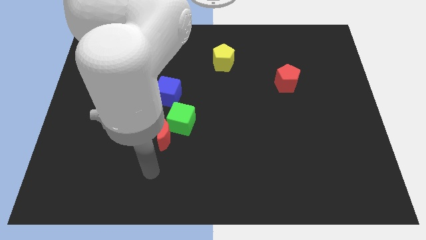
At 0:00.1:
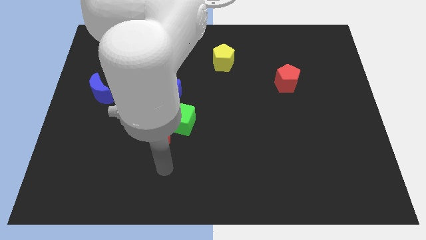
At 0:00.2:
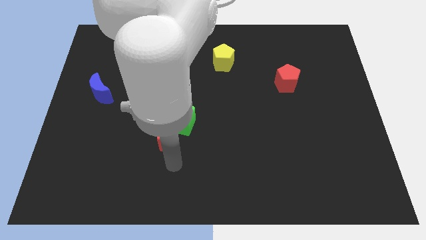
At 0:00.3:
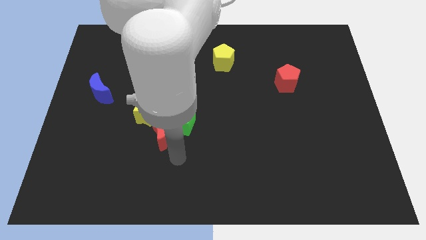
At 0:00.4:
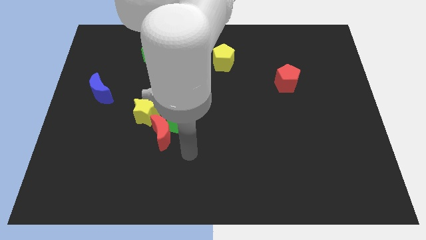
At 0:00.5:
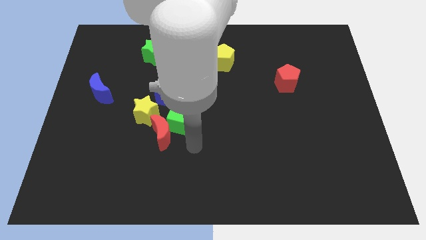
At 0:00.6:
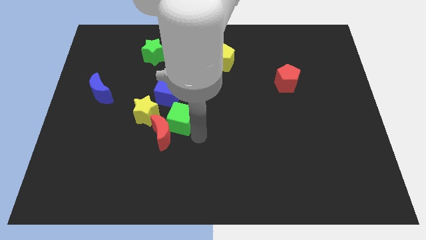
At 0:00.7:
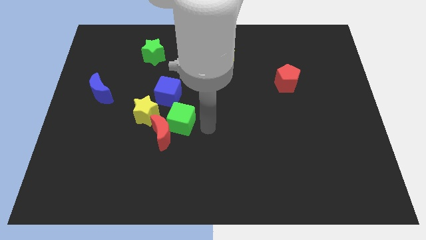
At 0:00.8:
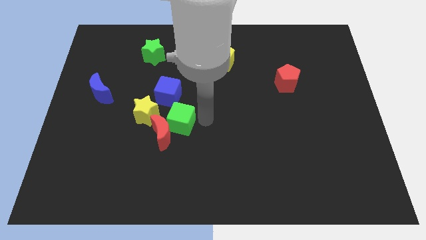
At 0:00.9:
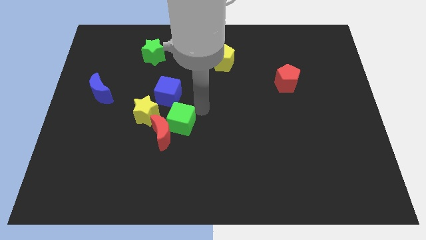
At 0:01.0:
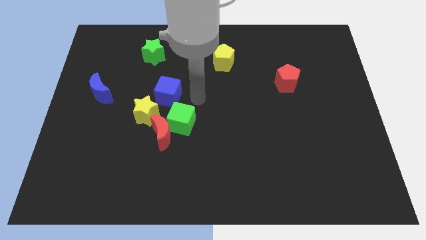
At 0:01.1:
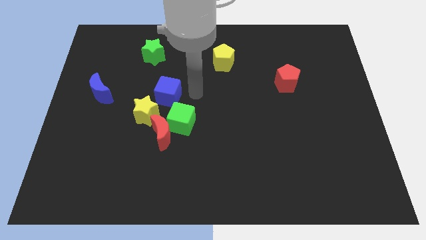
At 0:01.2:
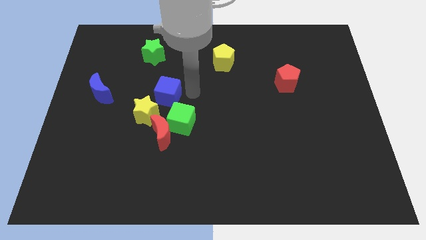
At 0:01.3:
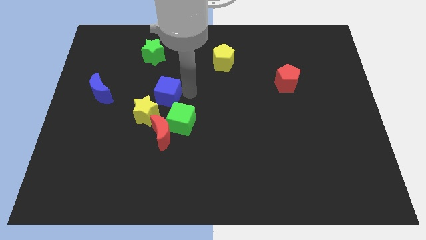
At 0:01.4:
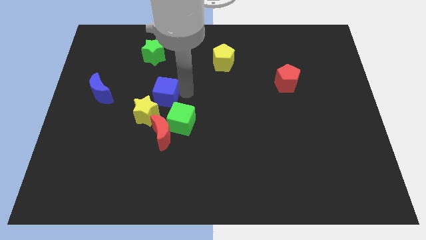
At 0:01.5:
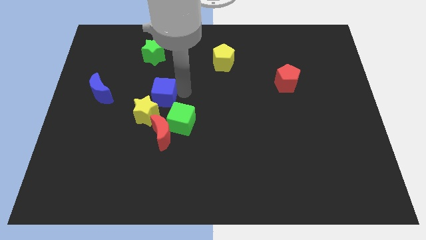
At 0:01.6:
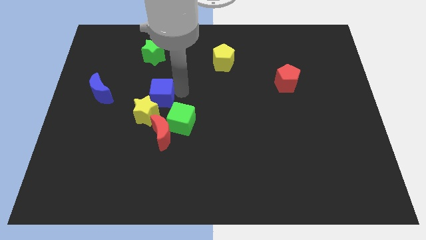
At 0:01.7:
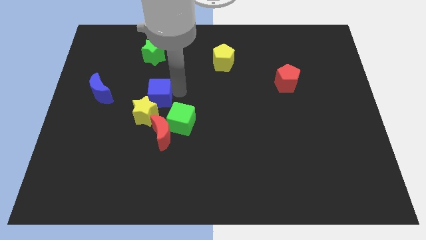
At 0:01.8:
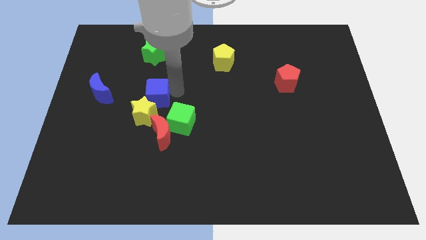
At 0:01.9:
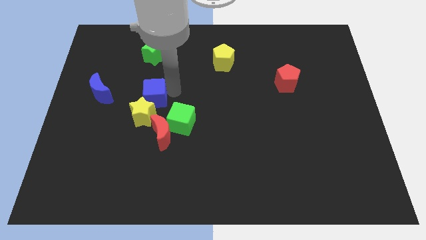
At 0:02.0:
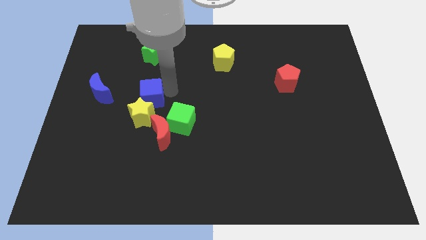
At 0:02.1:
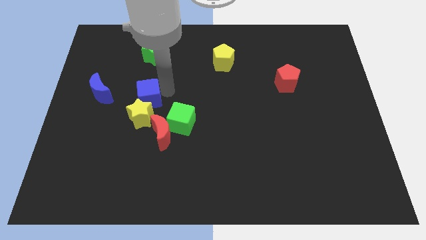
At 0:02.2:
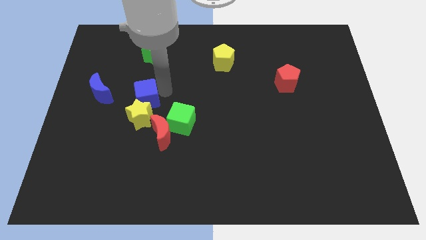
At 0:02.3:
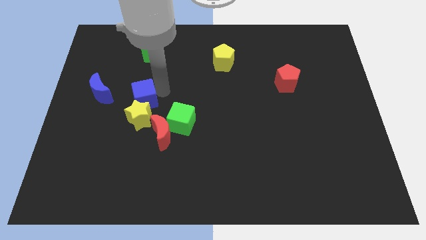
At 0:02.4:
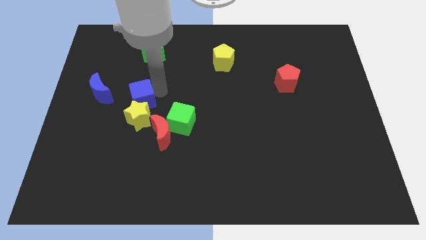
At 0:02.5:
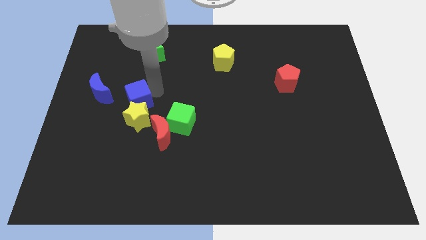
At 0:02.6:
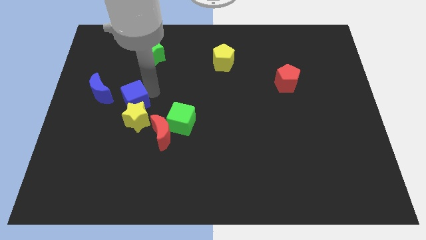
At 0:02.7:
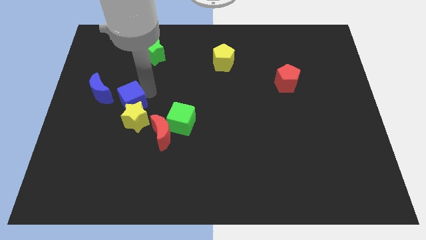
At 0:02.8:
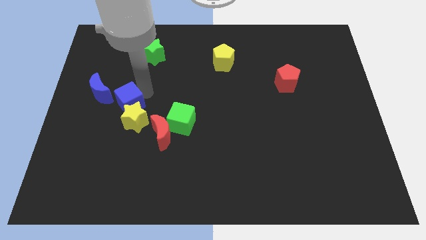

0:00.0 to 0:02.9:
slightly slide the blue cube downwards and left diagonally

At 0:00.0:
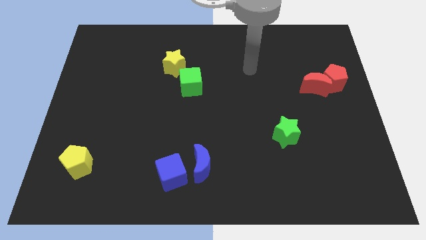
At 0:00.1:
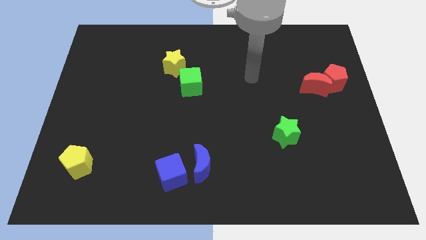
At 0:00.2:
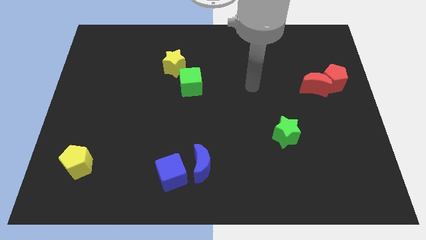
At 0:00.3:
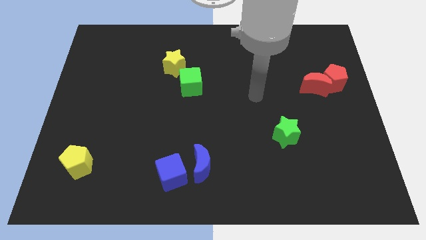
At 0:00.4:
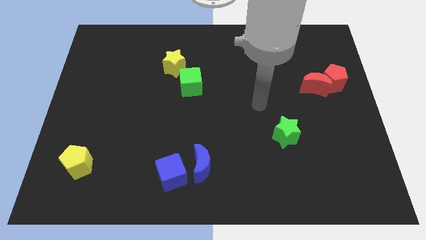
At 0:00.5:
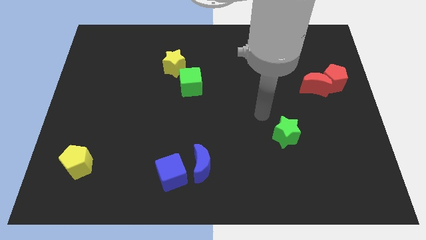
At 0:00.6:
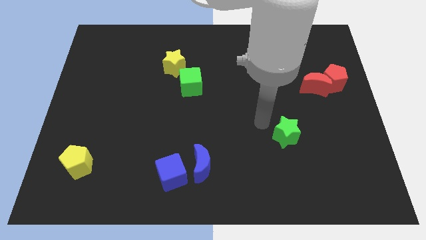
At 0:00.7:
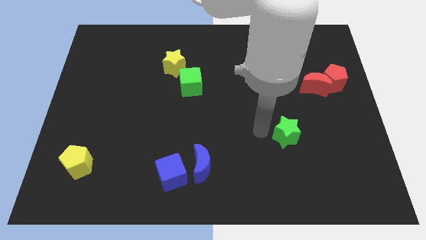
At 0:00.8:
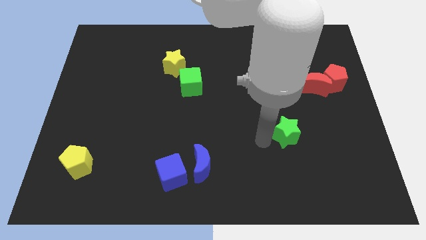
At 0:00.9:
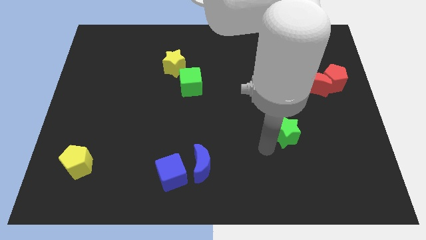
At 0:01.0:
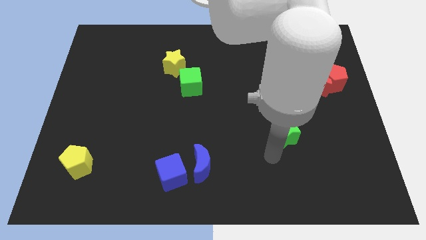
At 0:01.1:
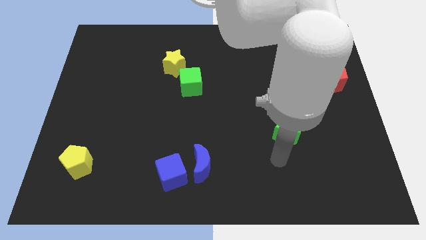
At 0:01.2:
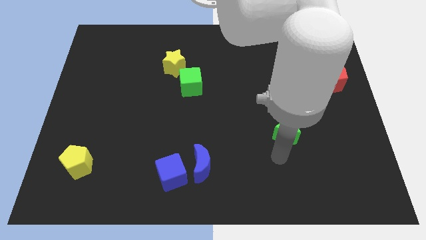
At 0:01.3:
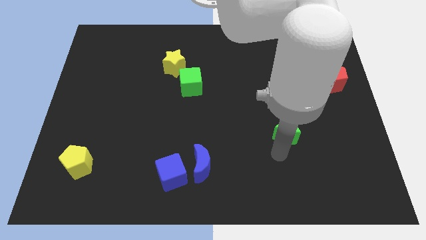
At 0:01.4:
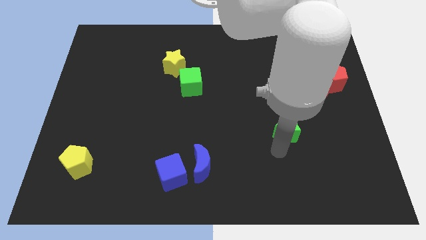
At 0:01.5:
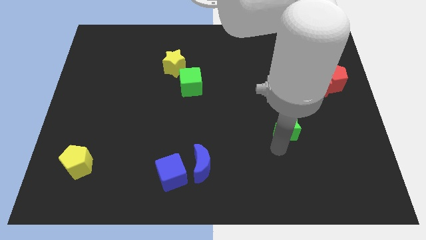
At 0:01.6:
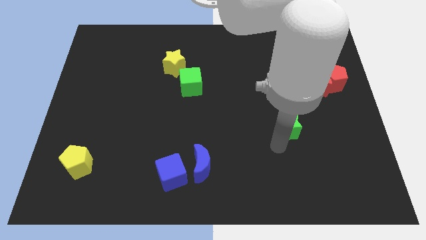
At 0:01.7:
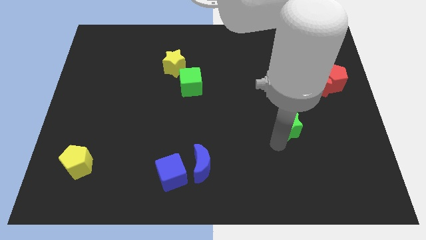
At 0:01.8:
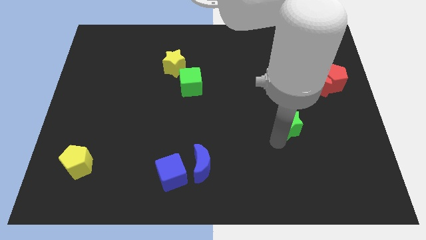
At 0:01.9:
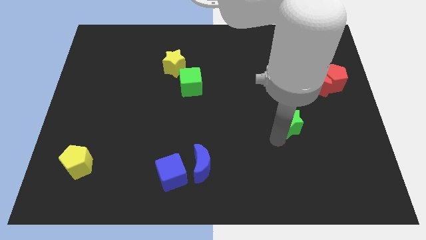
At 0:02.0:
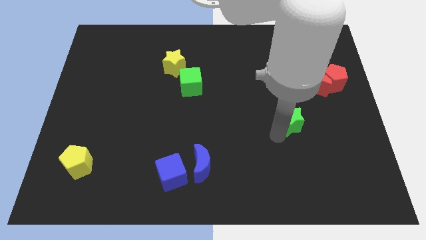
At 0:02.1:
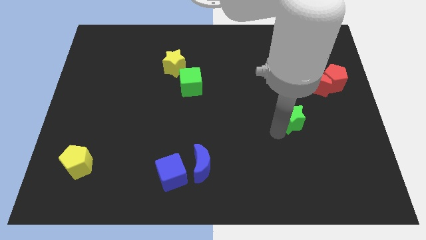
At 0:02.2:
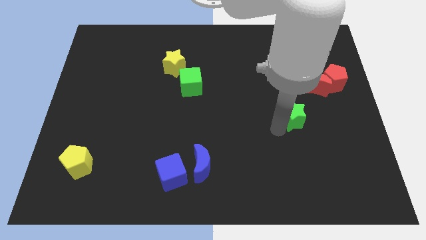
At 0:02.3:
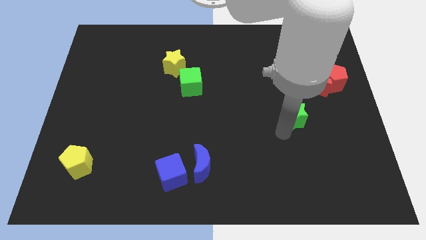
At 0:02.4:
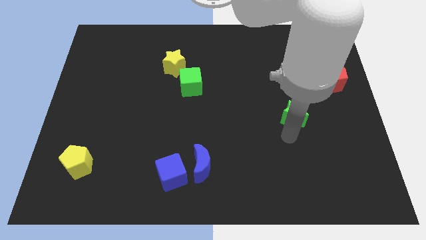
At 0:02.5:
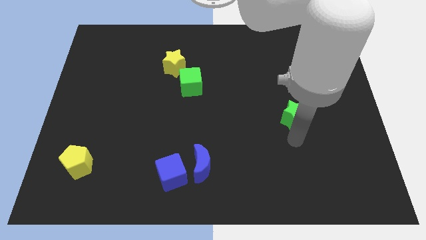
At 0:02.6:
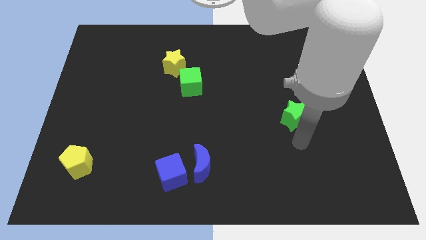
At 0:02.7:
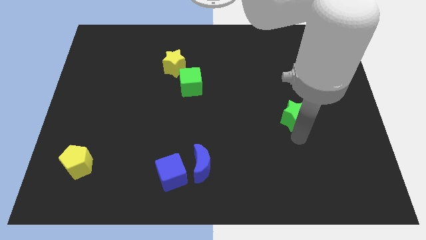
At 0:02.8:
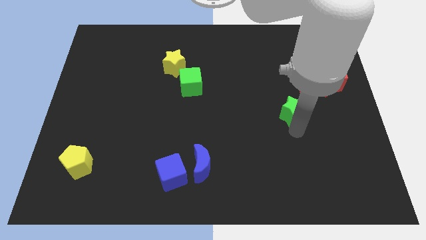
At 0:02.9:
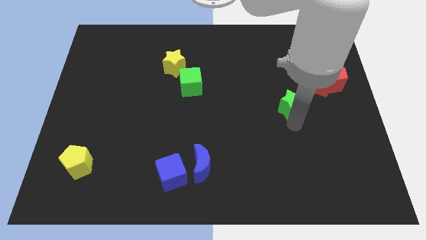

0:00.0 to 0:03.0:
move the green star a bit upwards

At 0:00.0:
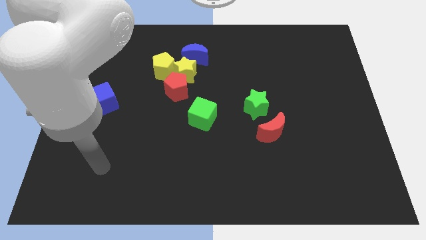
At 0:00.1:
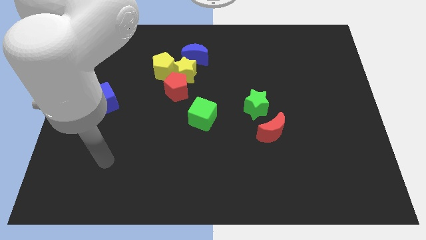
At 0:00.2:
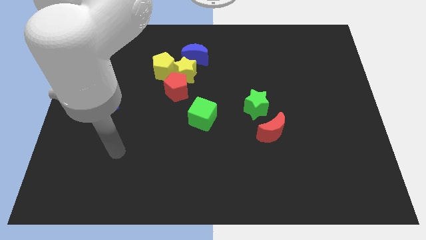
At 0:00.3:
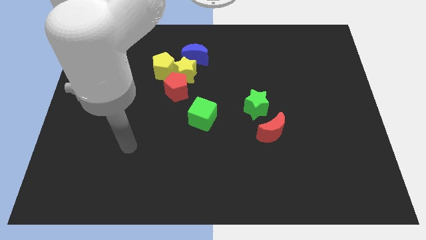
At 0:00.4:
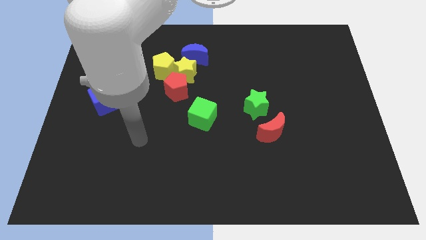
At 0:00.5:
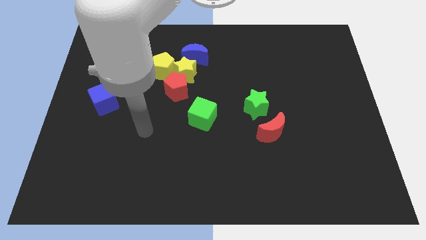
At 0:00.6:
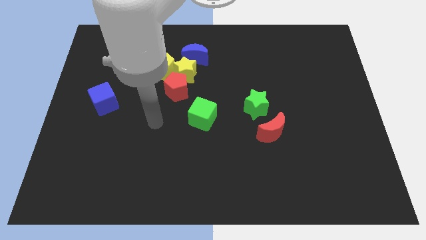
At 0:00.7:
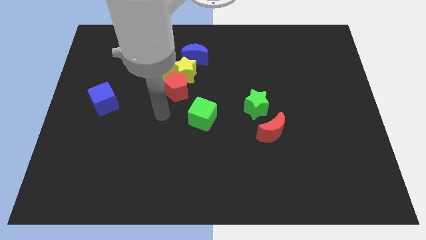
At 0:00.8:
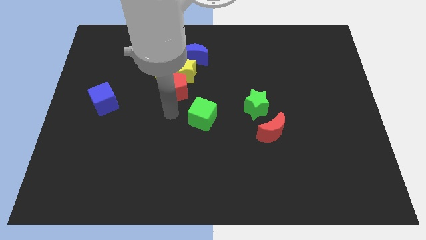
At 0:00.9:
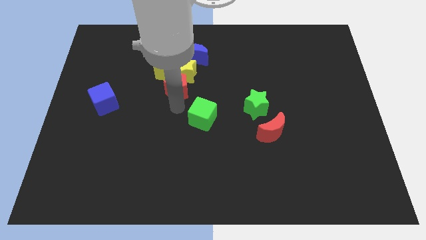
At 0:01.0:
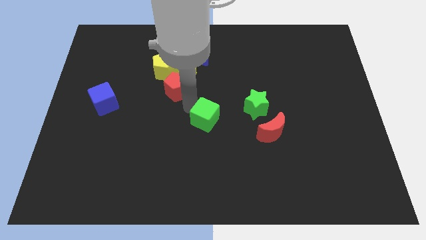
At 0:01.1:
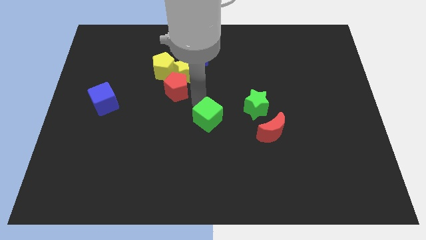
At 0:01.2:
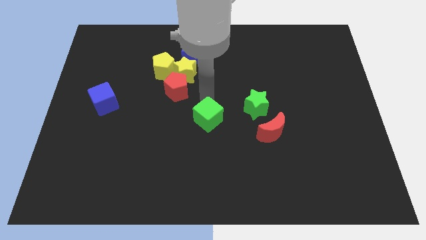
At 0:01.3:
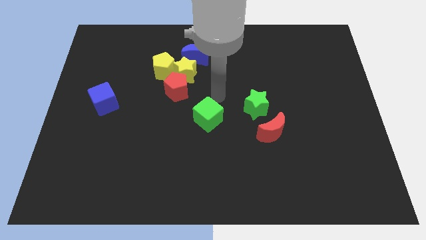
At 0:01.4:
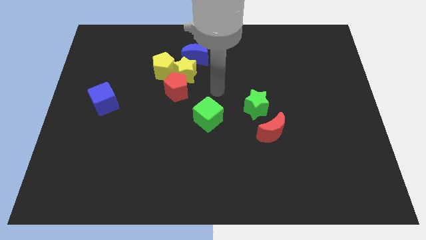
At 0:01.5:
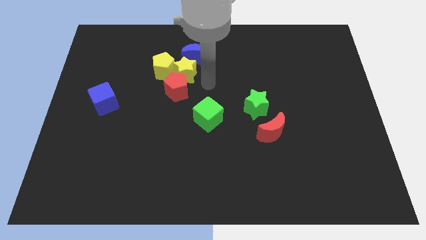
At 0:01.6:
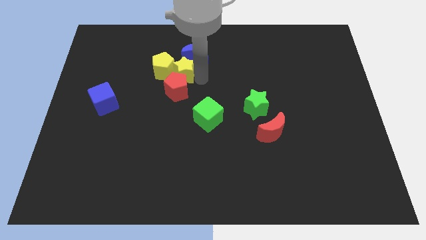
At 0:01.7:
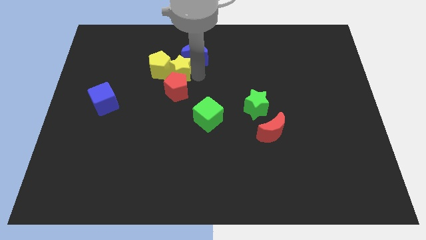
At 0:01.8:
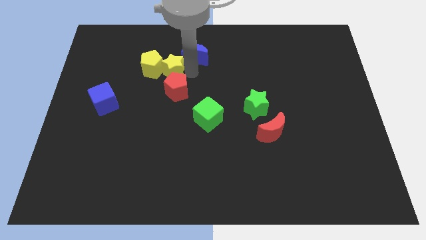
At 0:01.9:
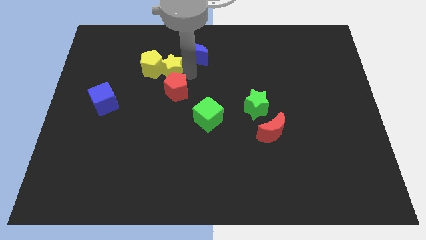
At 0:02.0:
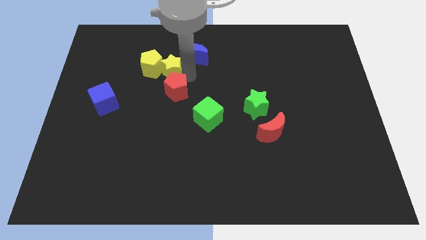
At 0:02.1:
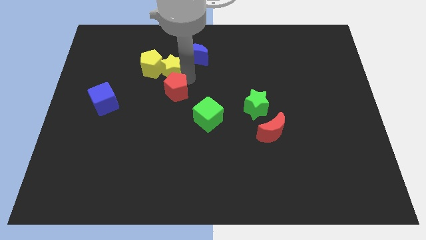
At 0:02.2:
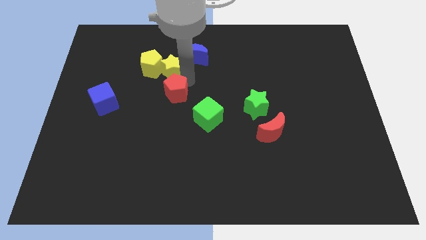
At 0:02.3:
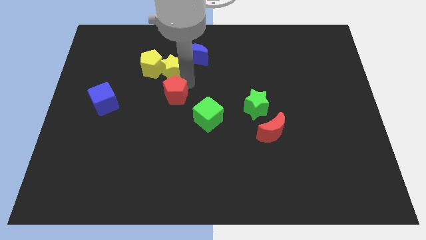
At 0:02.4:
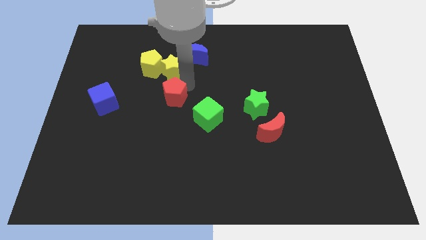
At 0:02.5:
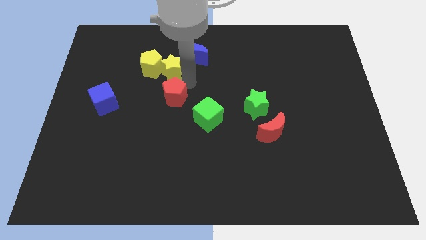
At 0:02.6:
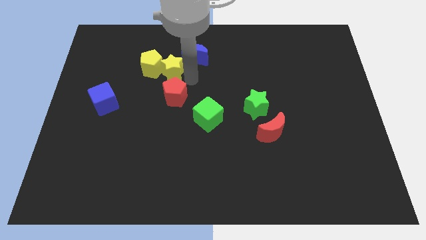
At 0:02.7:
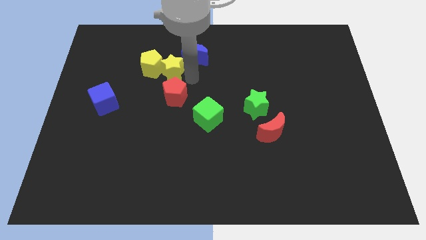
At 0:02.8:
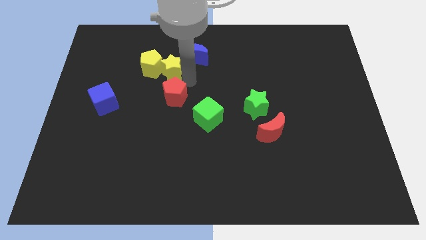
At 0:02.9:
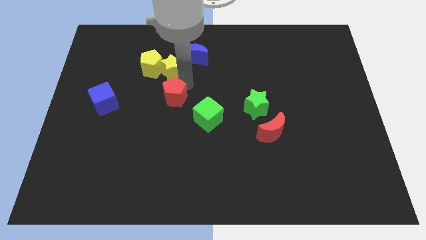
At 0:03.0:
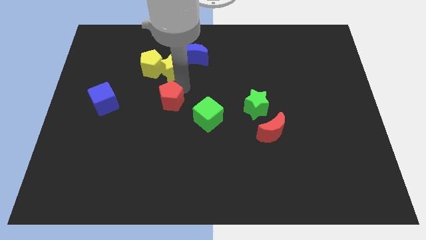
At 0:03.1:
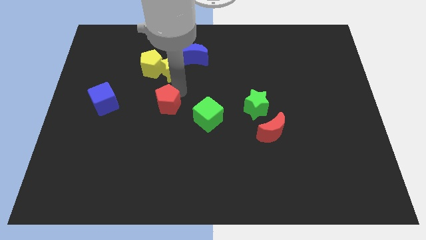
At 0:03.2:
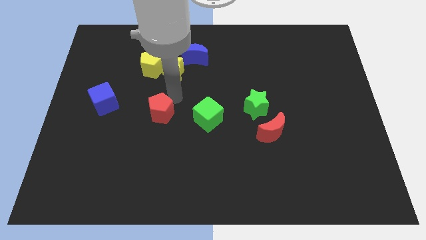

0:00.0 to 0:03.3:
push the red pentagon diagonally downwards and to the left slightly
